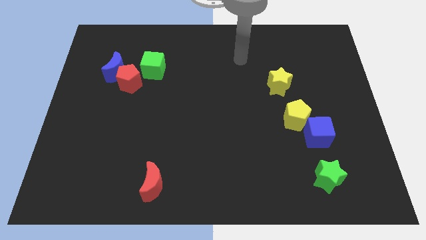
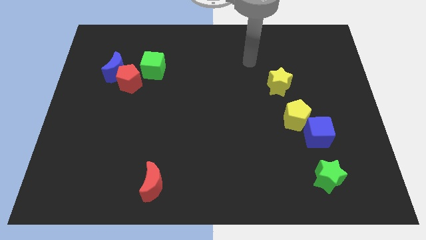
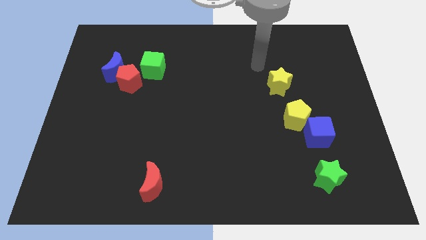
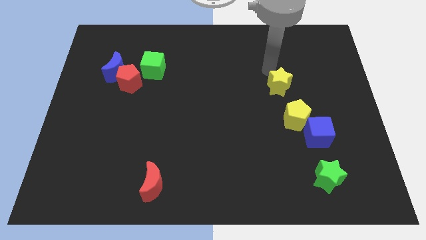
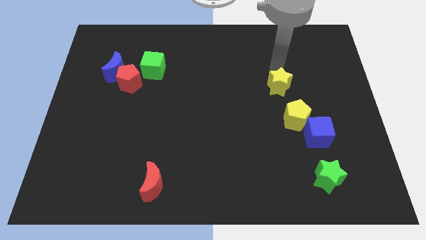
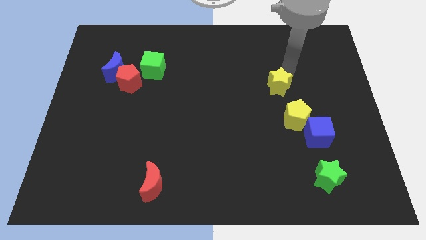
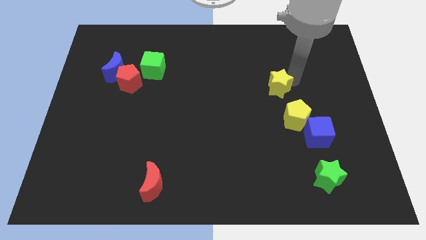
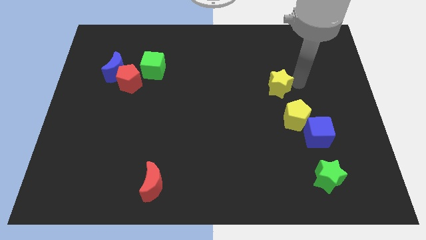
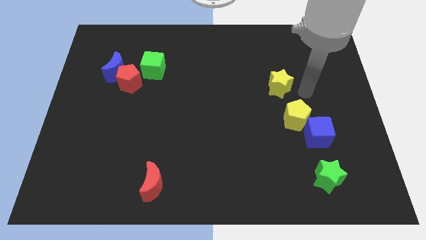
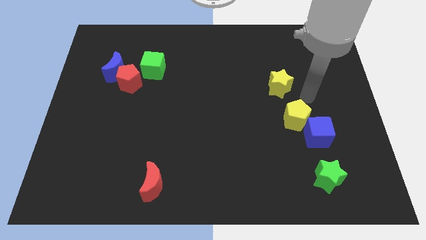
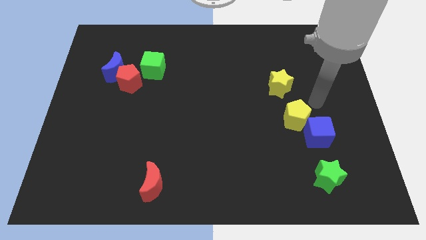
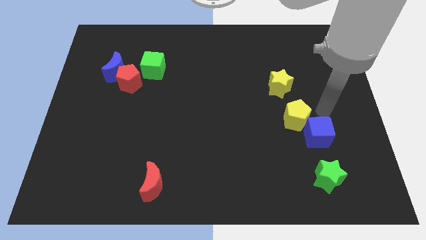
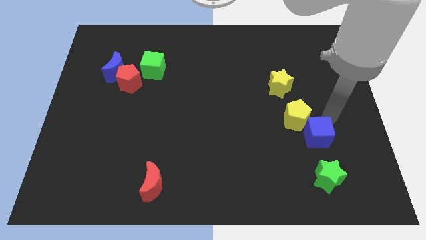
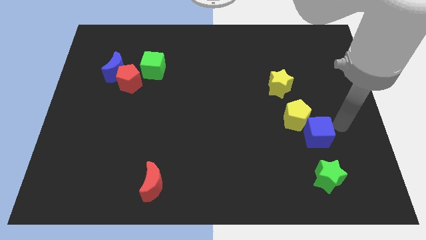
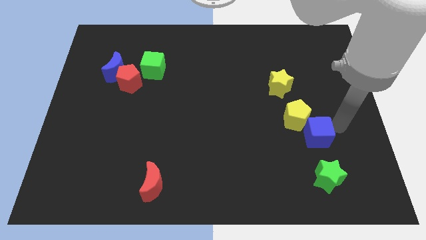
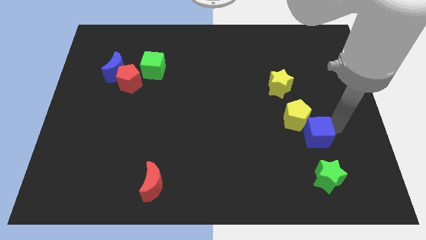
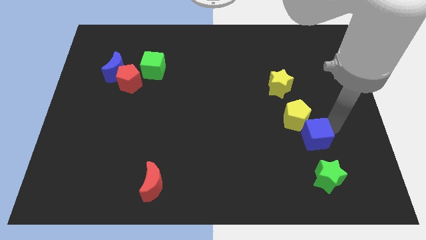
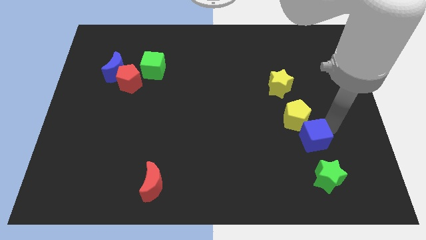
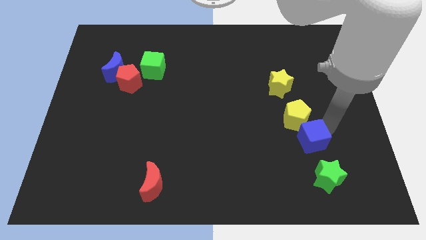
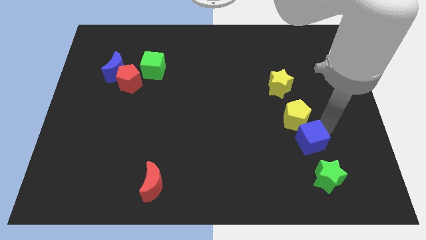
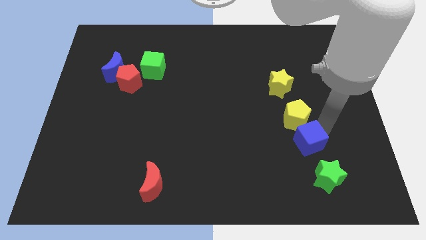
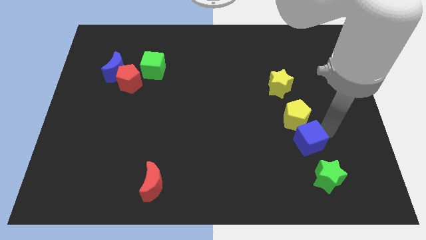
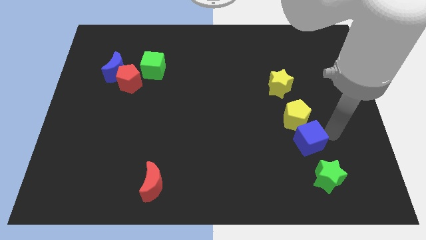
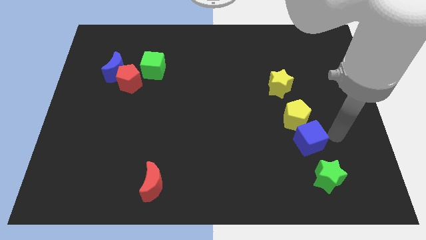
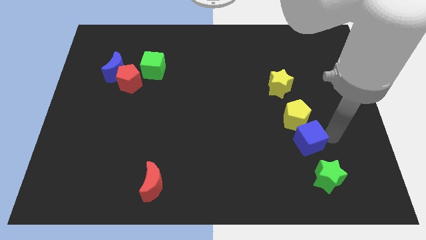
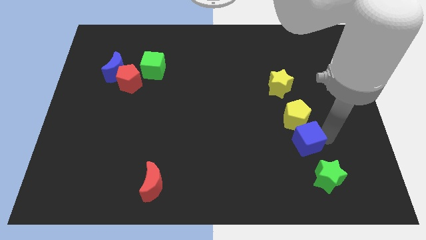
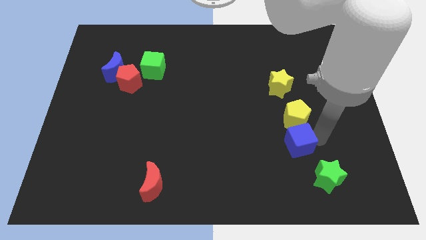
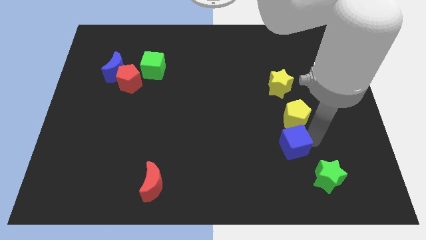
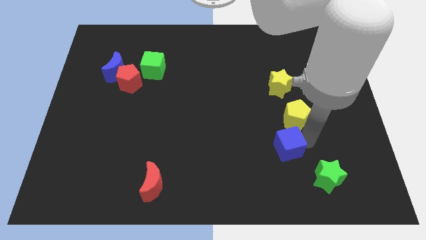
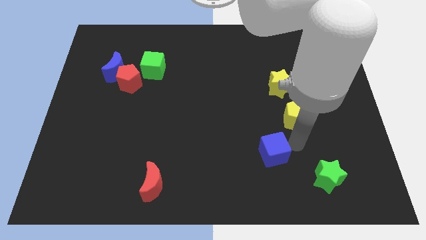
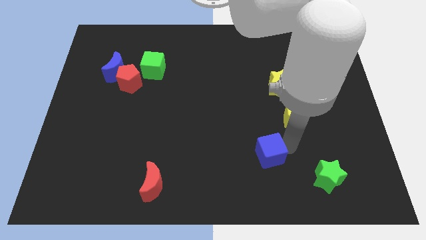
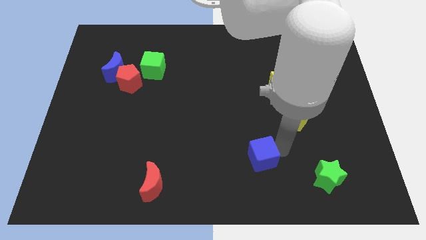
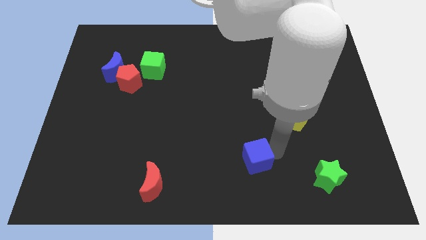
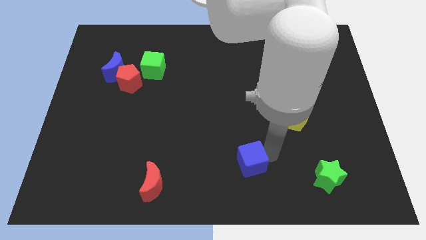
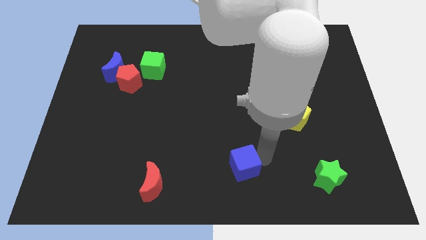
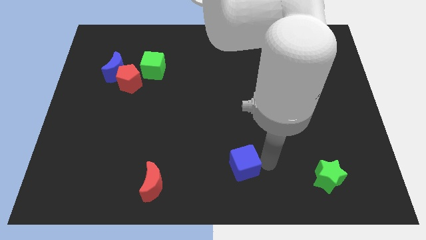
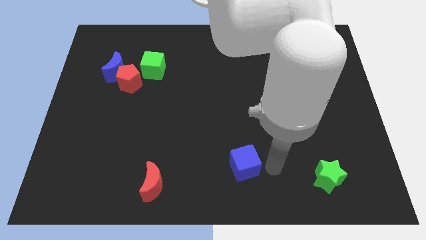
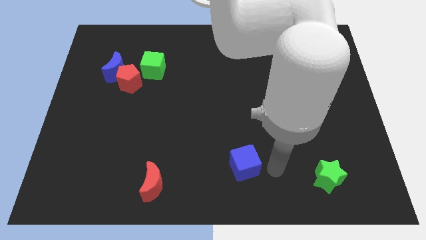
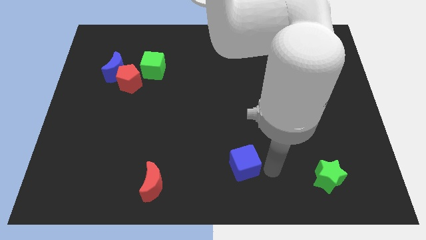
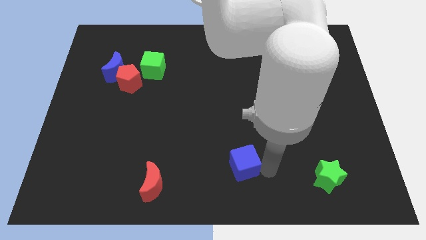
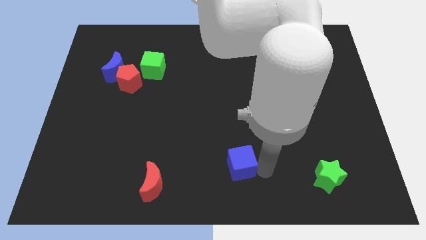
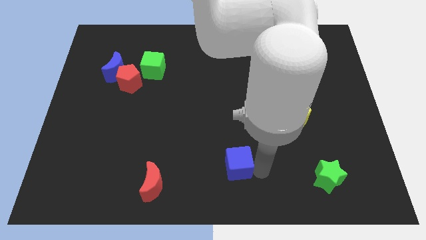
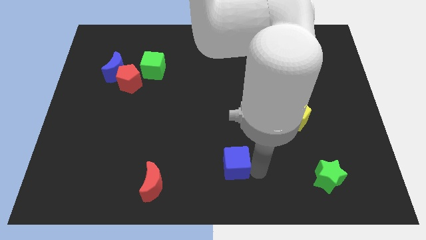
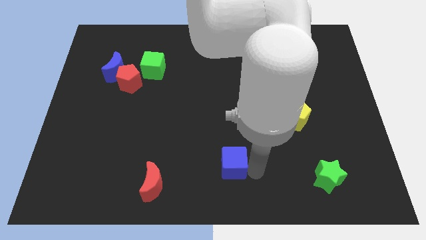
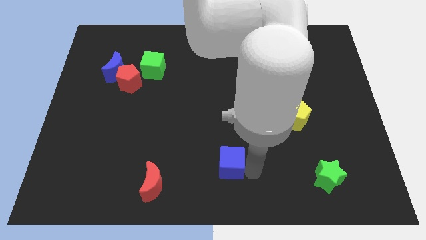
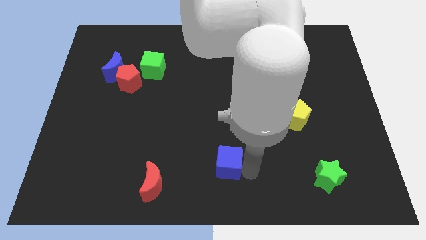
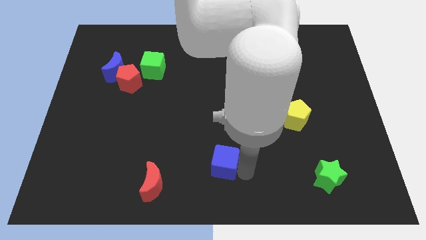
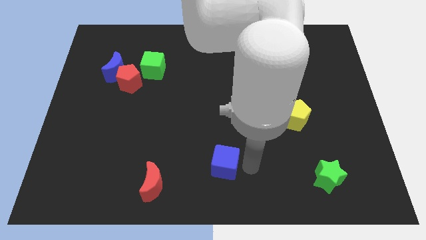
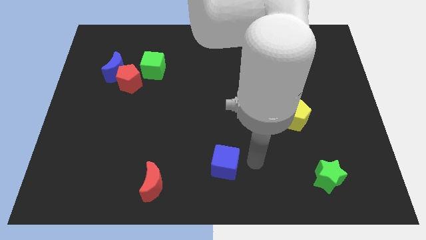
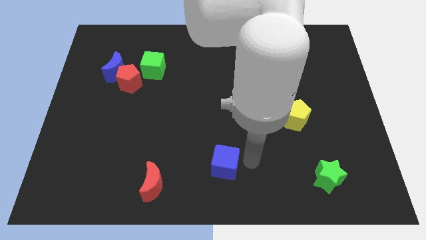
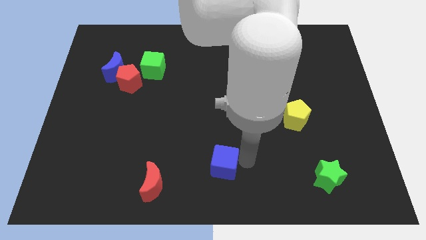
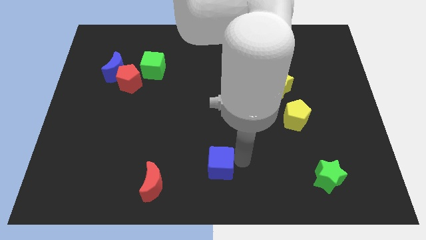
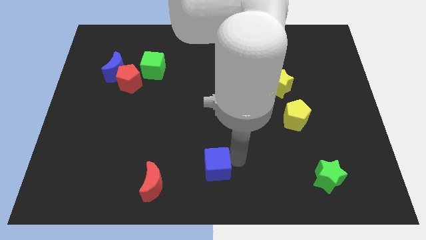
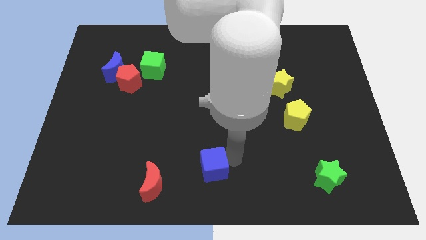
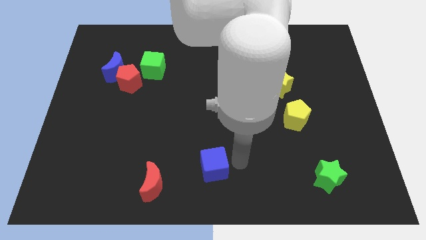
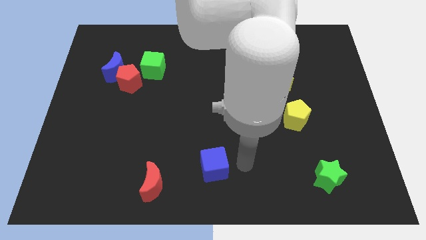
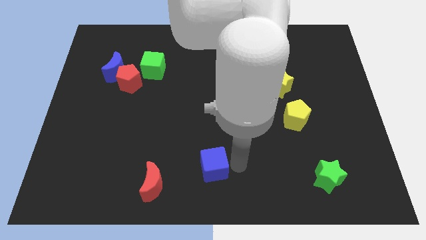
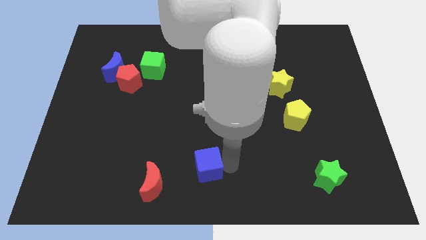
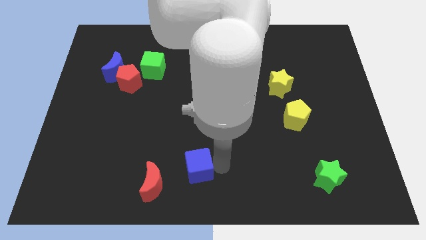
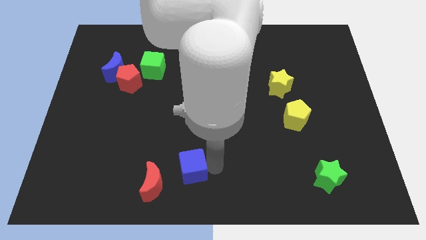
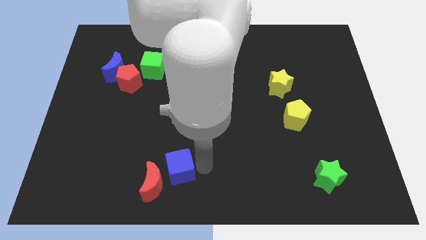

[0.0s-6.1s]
move the blue cube to the red moon

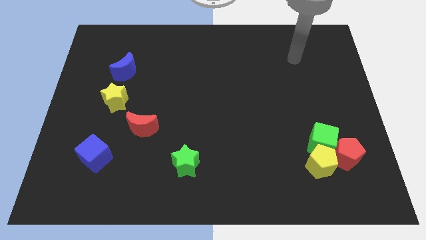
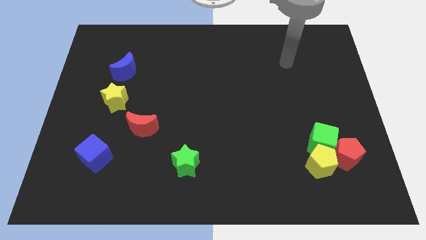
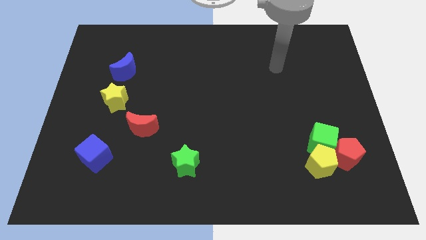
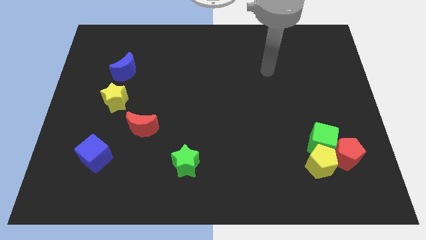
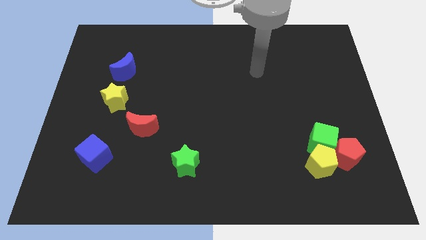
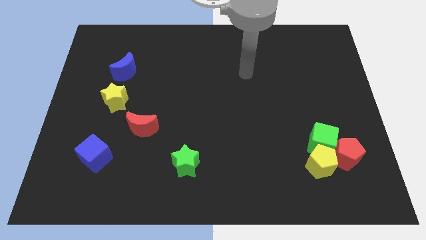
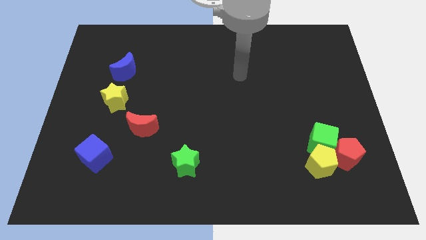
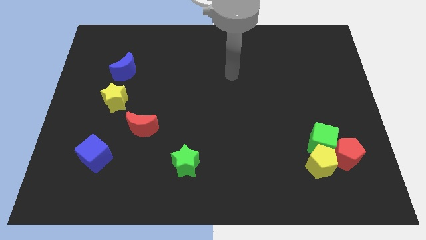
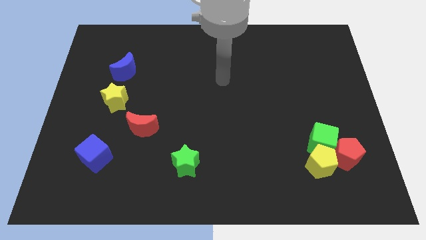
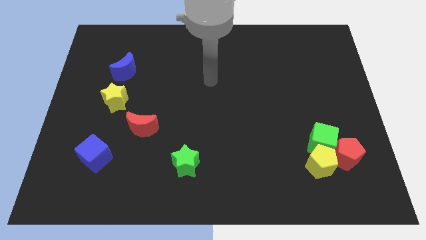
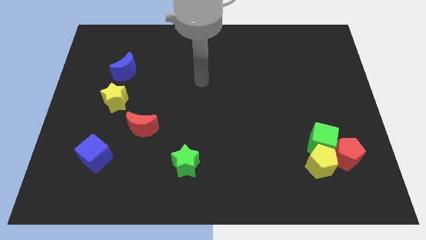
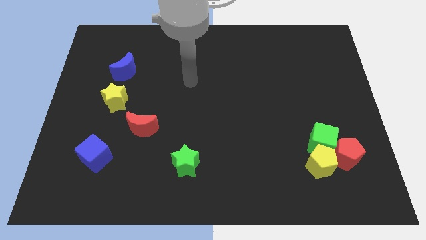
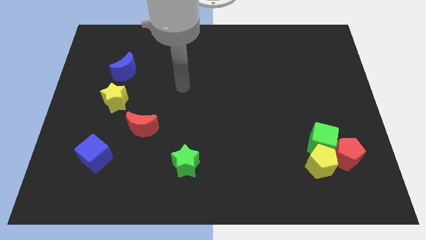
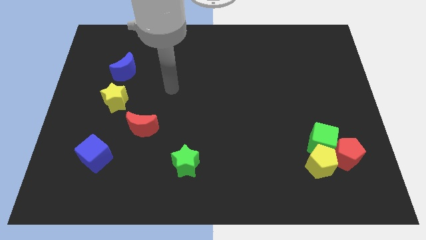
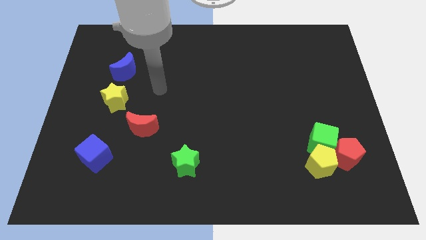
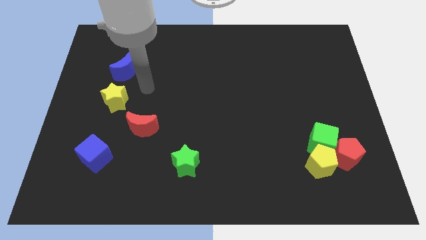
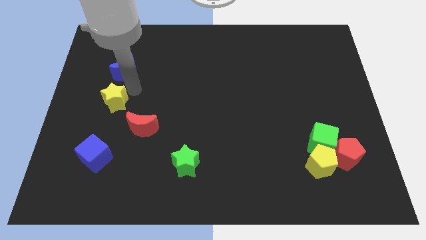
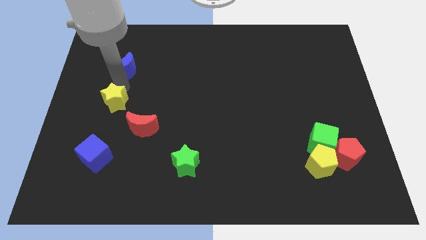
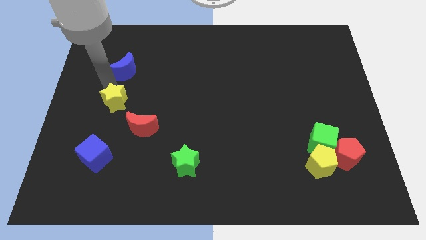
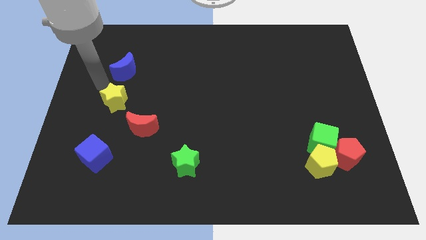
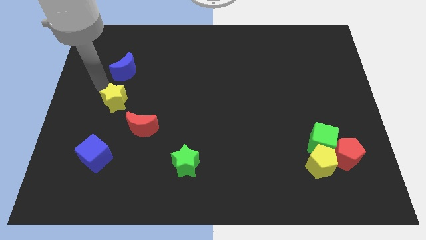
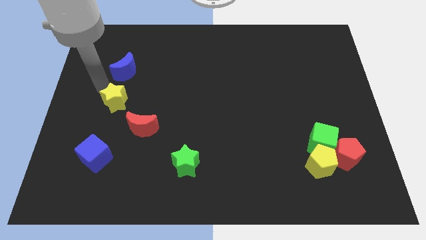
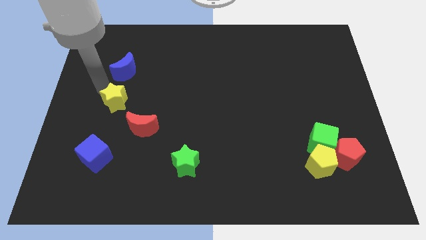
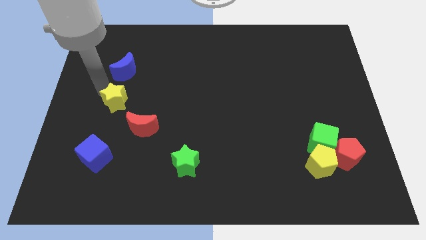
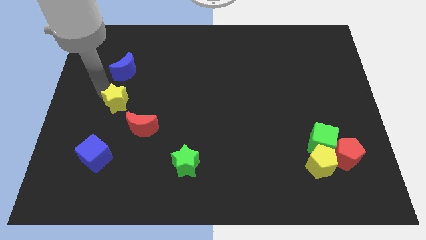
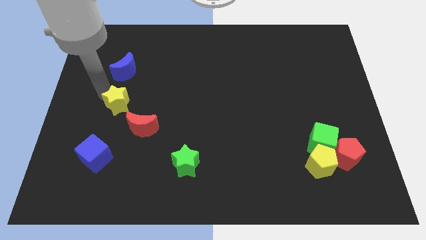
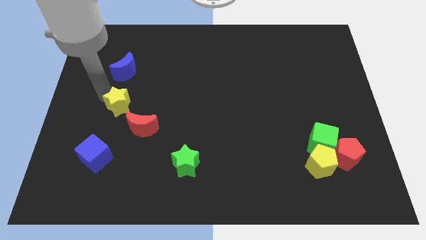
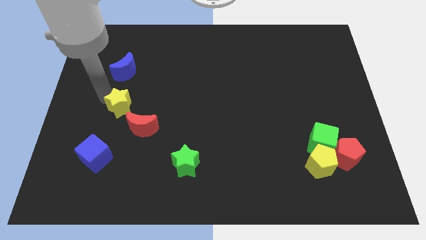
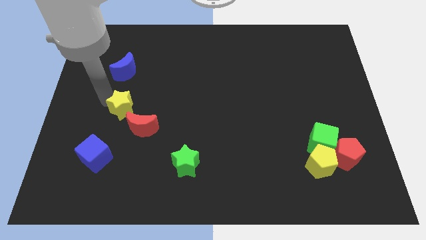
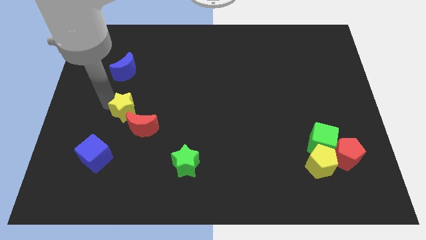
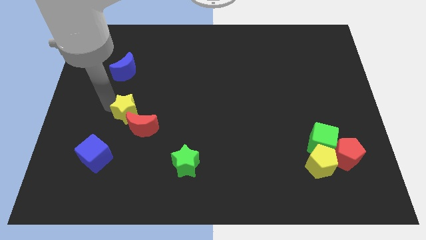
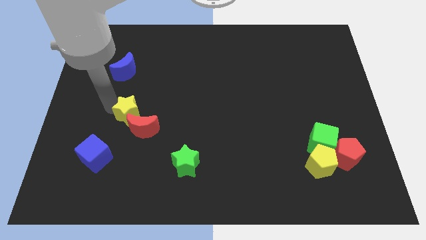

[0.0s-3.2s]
push the yellow star close to the red moon
